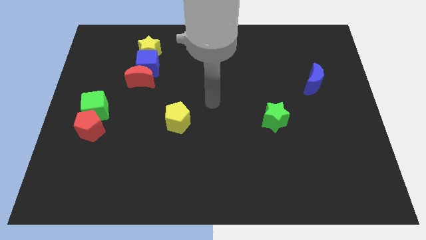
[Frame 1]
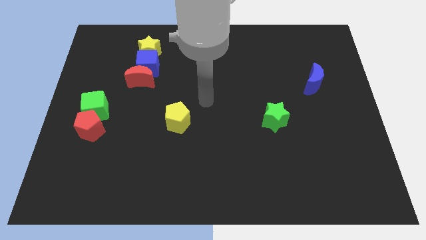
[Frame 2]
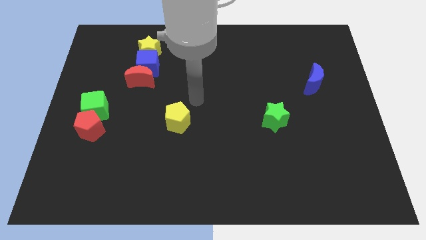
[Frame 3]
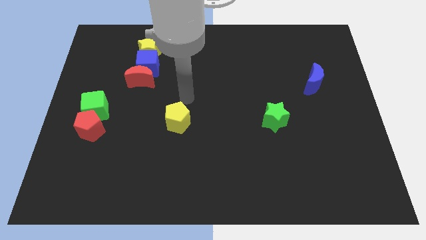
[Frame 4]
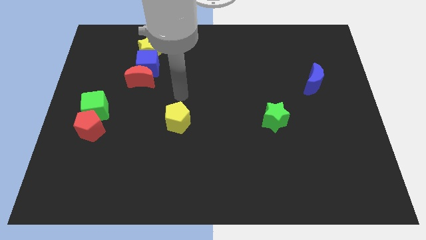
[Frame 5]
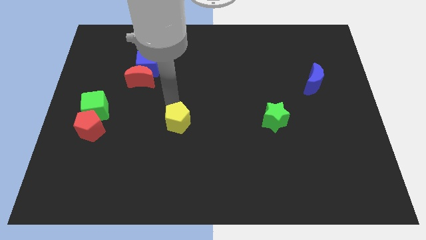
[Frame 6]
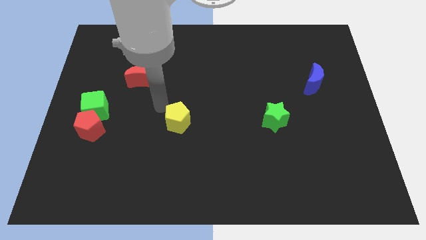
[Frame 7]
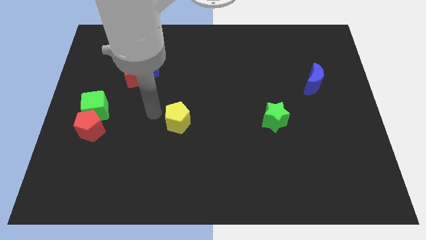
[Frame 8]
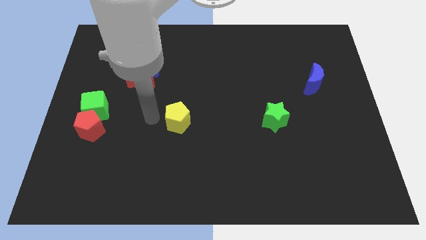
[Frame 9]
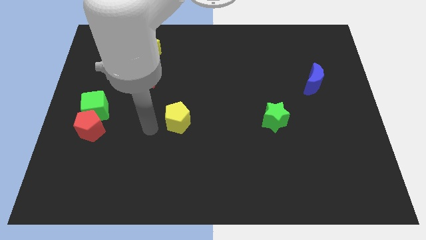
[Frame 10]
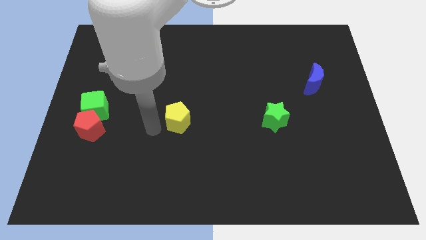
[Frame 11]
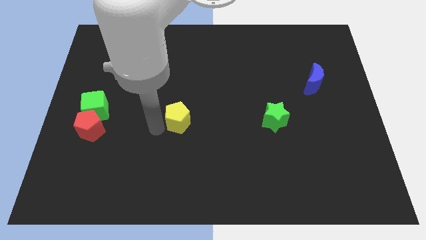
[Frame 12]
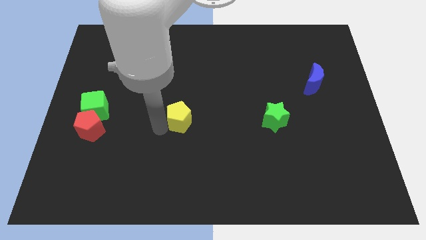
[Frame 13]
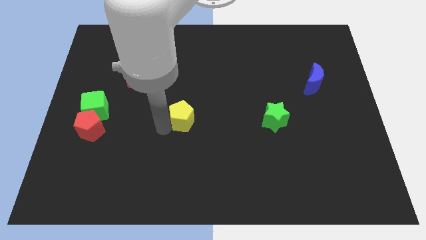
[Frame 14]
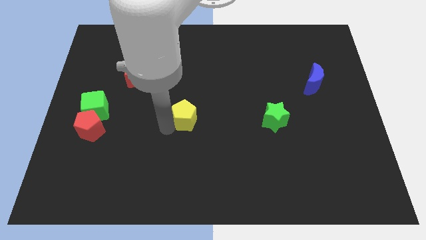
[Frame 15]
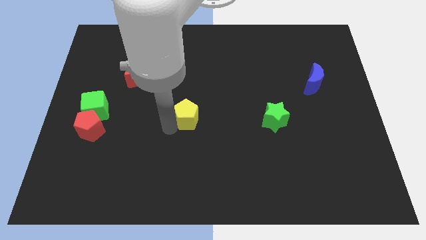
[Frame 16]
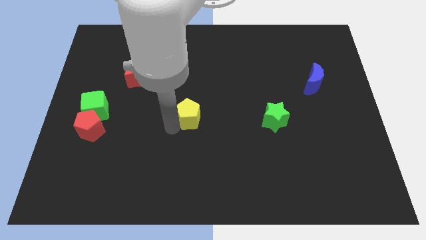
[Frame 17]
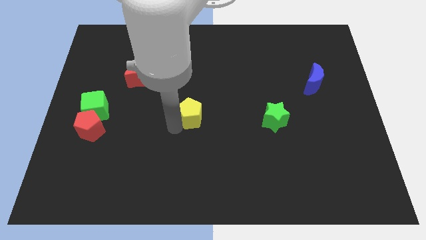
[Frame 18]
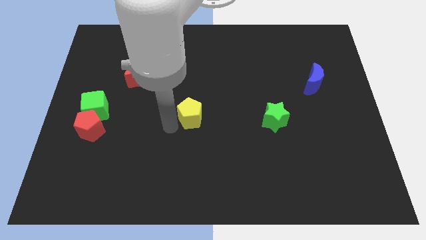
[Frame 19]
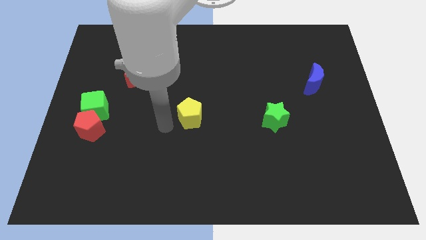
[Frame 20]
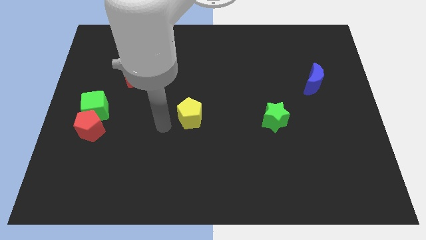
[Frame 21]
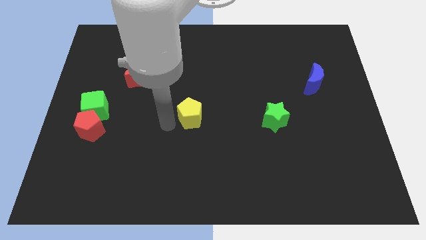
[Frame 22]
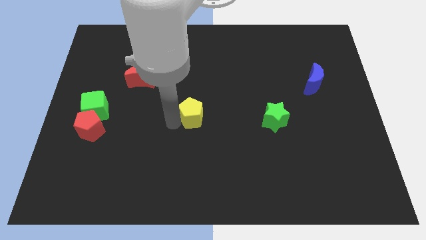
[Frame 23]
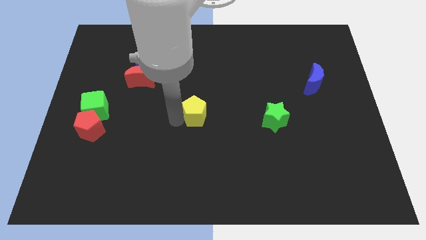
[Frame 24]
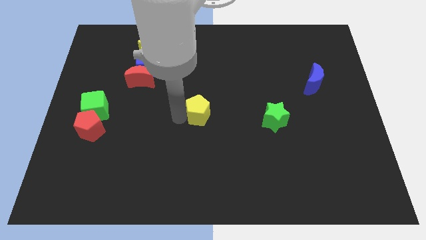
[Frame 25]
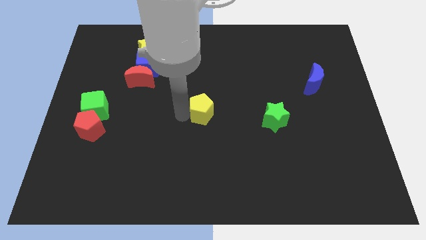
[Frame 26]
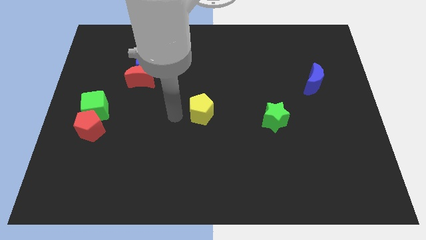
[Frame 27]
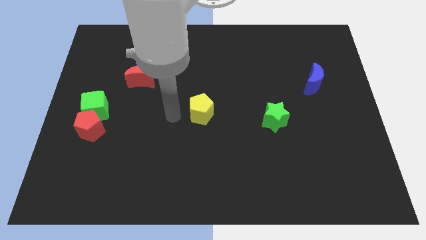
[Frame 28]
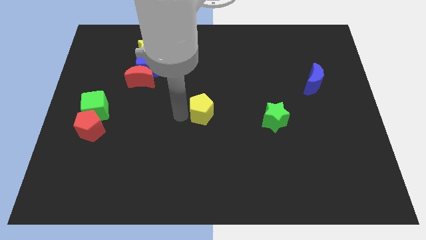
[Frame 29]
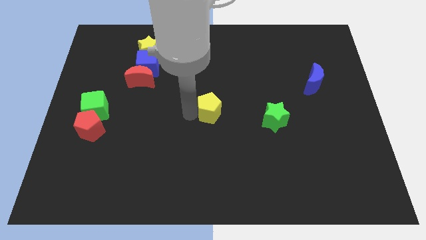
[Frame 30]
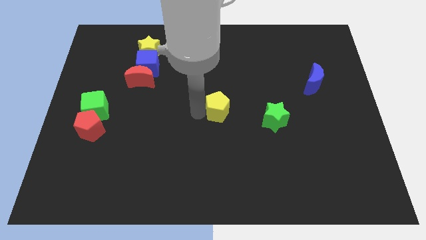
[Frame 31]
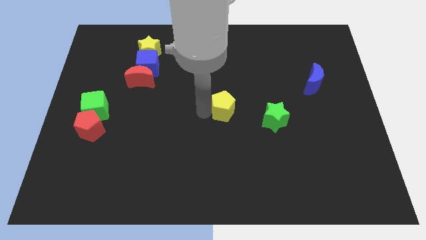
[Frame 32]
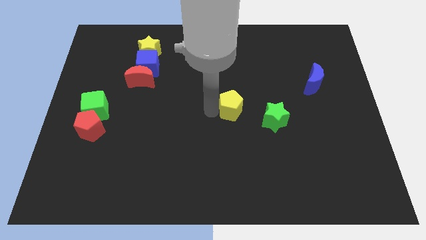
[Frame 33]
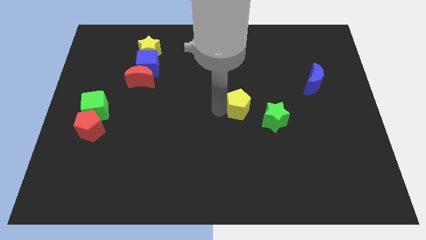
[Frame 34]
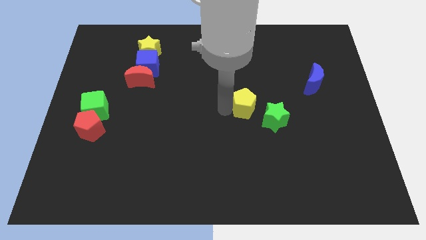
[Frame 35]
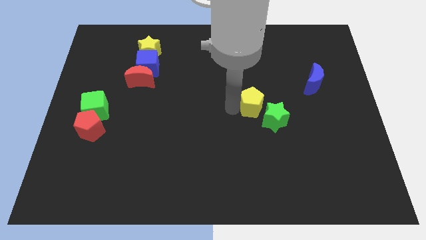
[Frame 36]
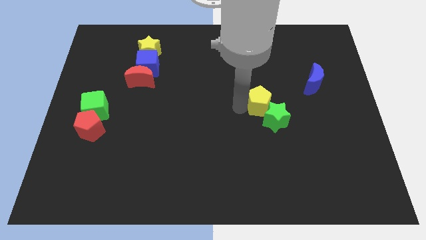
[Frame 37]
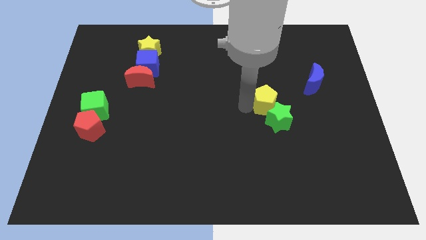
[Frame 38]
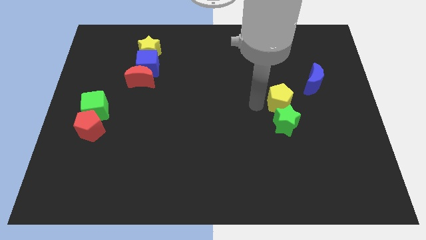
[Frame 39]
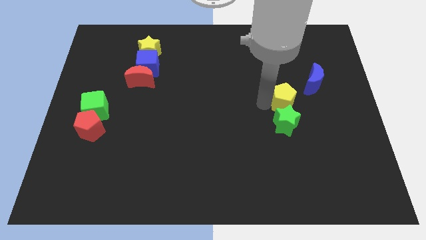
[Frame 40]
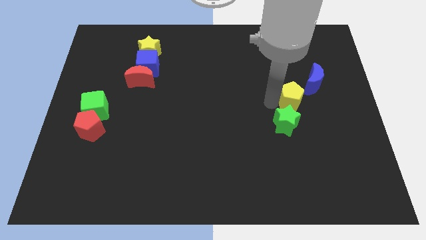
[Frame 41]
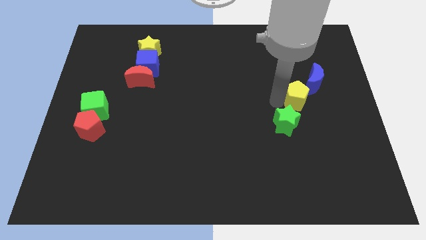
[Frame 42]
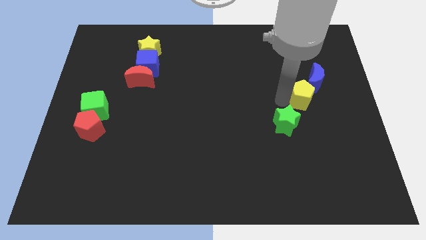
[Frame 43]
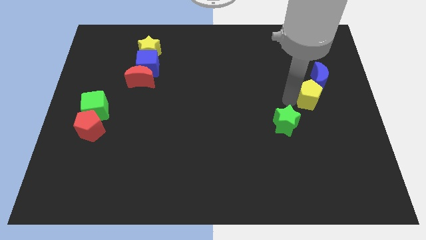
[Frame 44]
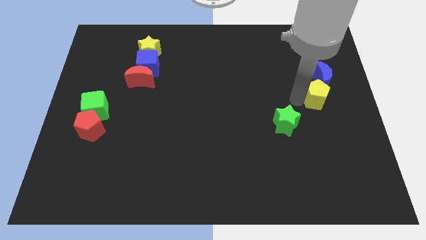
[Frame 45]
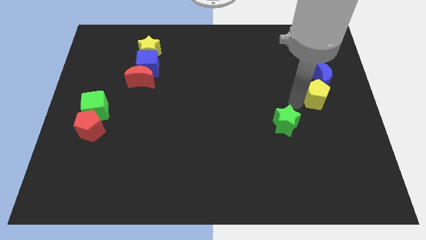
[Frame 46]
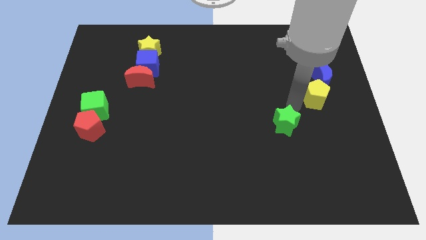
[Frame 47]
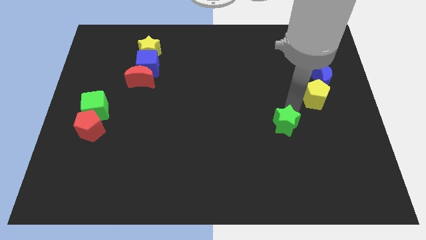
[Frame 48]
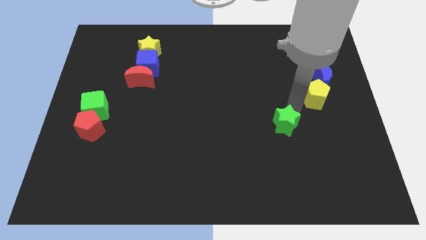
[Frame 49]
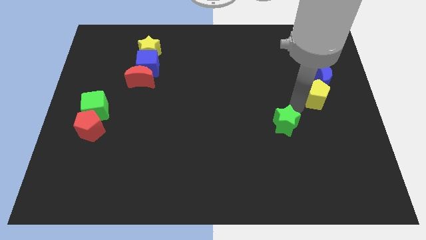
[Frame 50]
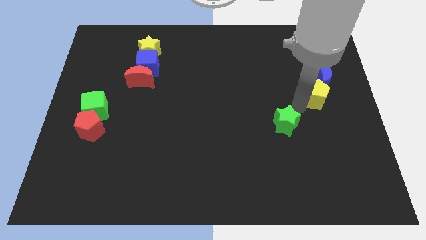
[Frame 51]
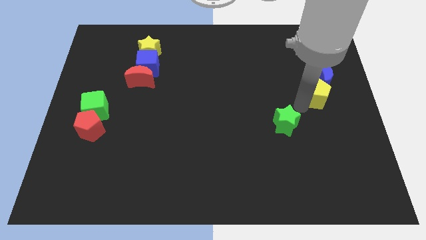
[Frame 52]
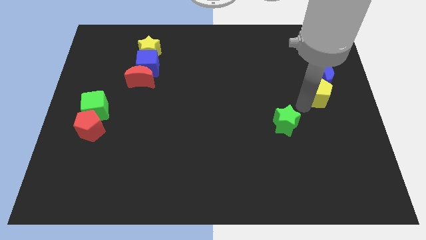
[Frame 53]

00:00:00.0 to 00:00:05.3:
slide the yellow pentagon to the right side

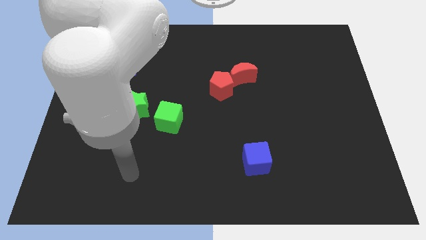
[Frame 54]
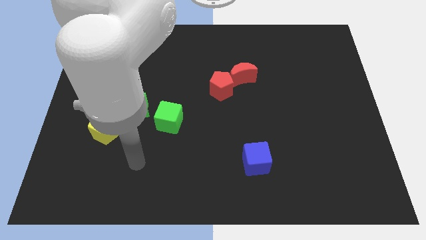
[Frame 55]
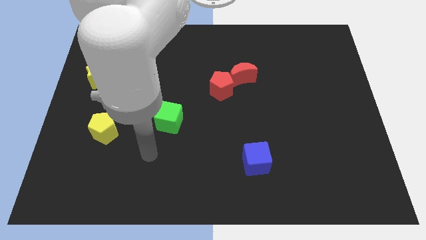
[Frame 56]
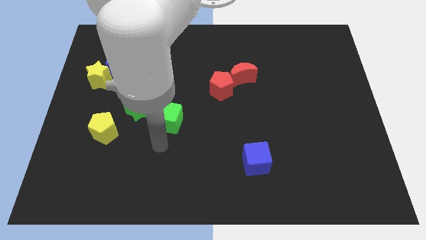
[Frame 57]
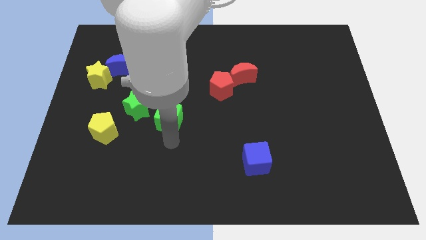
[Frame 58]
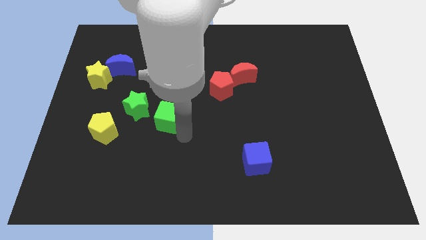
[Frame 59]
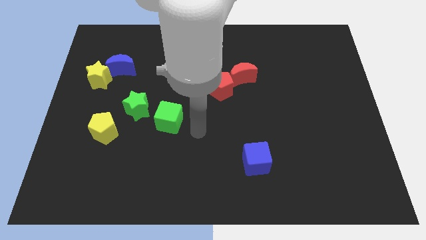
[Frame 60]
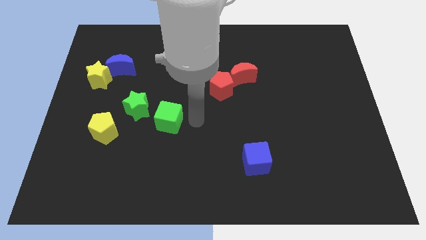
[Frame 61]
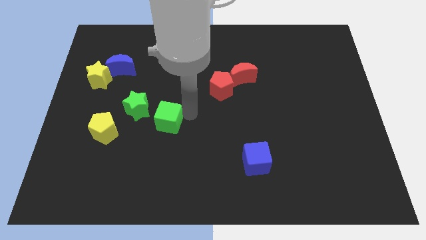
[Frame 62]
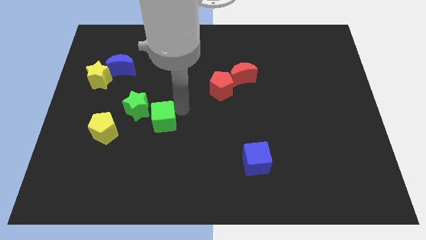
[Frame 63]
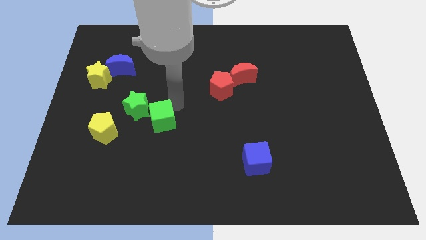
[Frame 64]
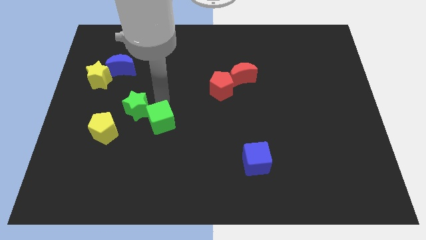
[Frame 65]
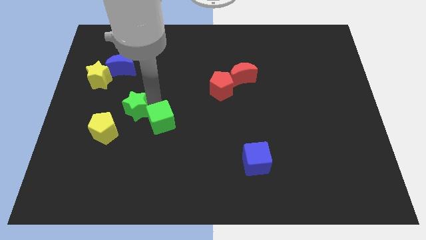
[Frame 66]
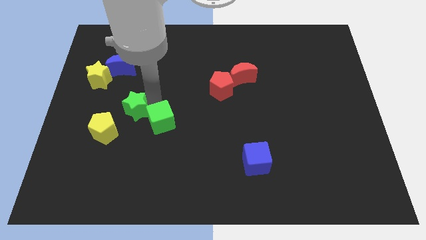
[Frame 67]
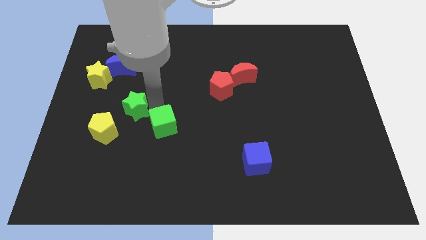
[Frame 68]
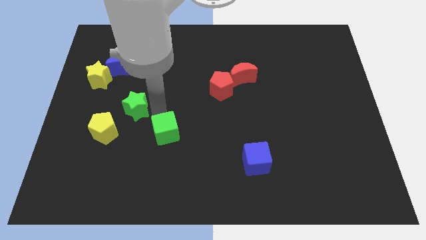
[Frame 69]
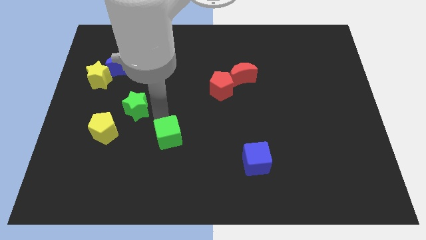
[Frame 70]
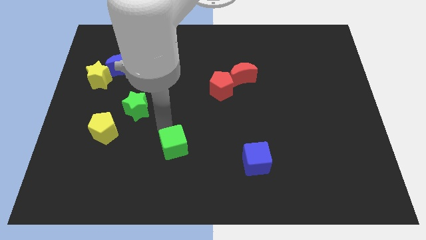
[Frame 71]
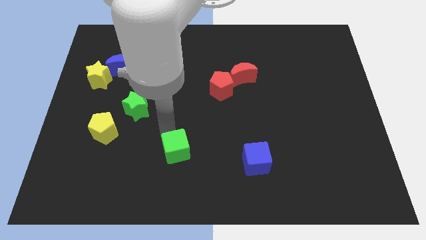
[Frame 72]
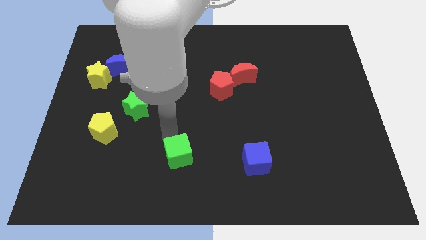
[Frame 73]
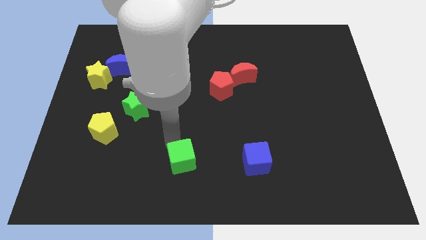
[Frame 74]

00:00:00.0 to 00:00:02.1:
put the green cube to the bottom side
